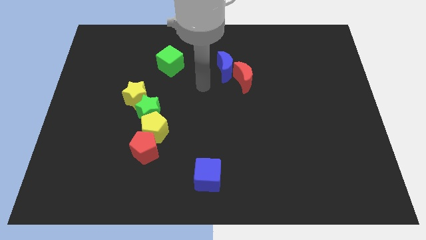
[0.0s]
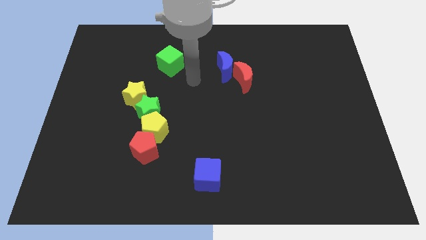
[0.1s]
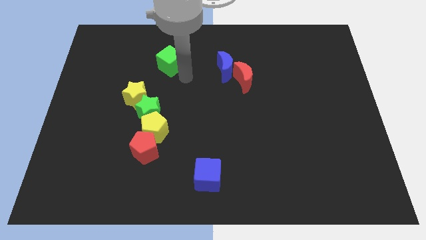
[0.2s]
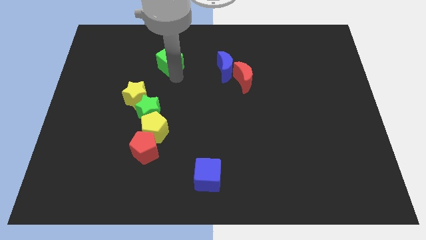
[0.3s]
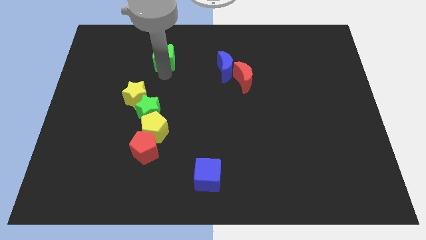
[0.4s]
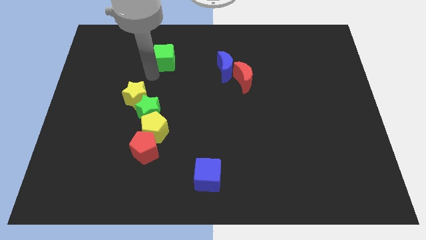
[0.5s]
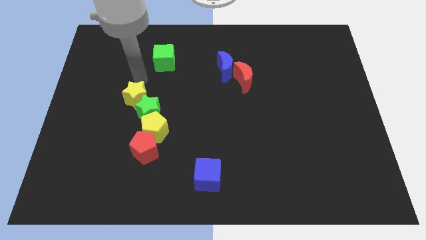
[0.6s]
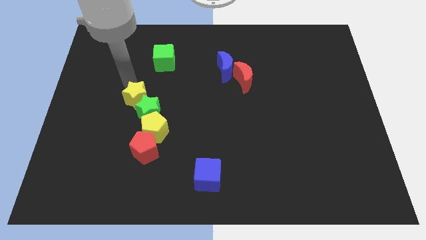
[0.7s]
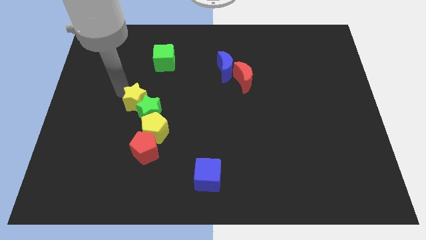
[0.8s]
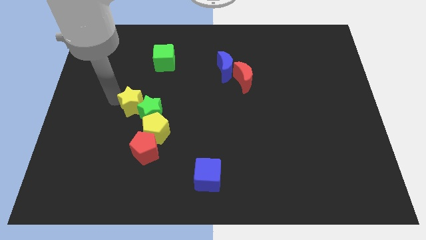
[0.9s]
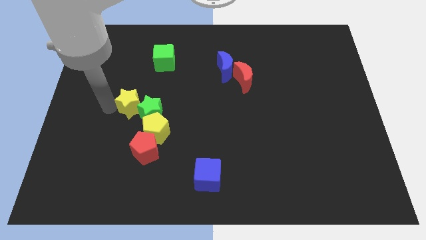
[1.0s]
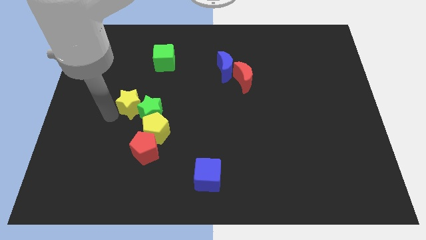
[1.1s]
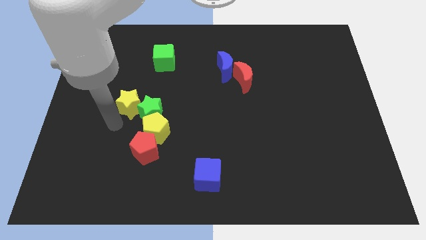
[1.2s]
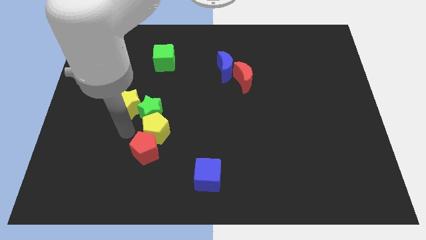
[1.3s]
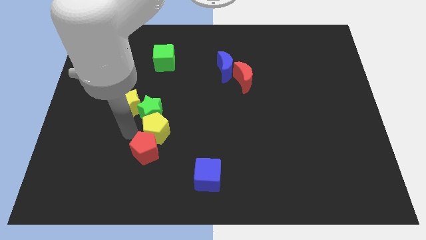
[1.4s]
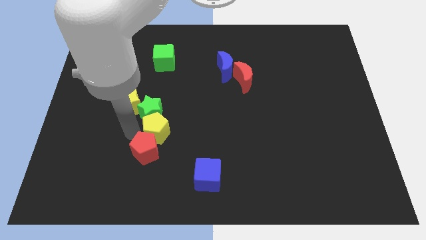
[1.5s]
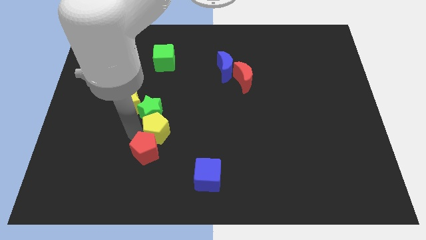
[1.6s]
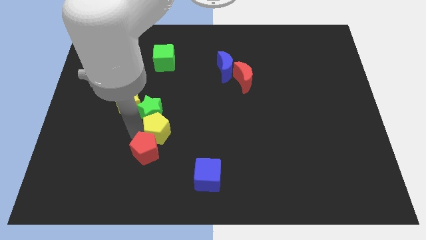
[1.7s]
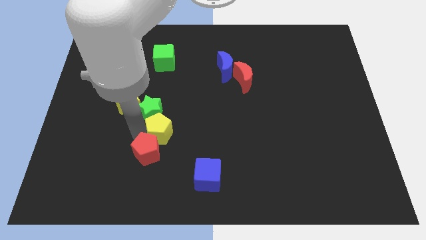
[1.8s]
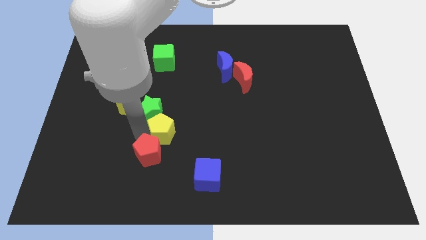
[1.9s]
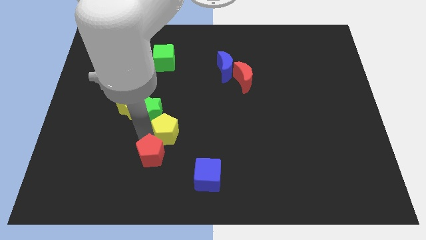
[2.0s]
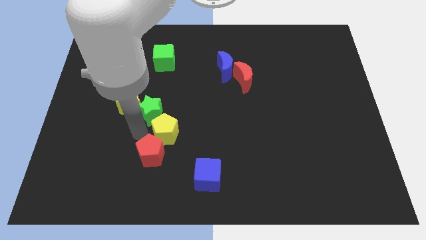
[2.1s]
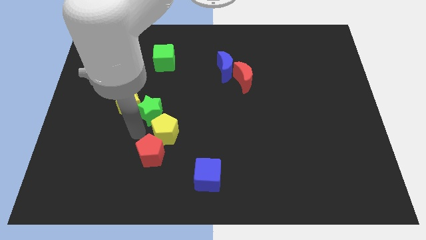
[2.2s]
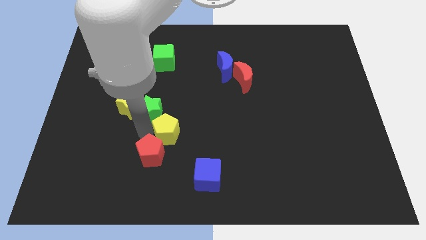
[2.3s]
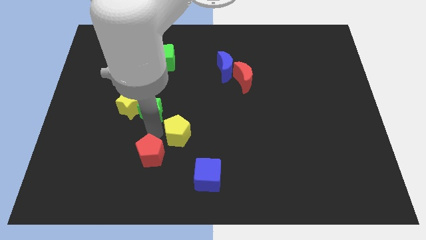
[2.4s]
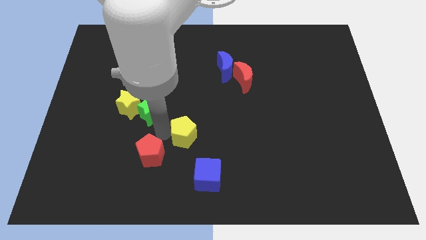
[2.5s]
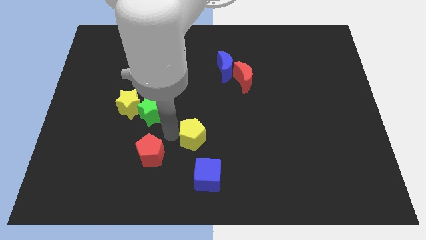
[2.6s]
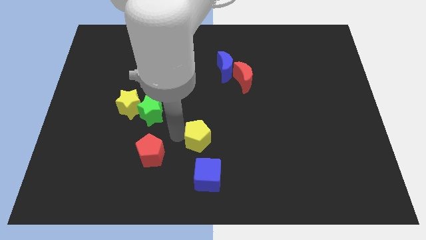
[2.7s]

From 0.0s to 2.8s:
separate the yellow pentagon from the red pentagon and green star

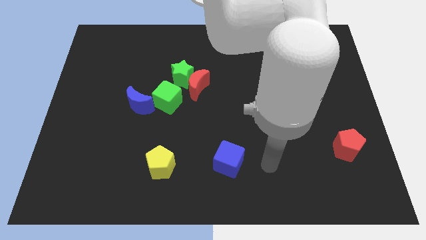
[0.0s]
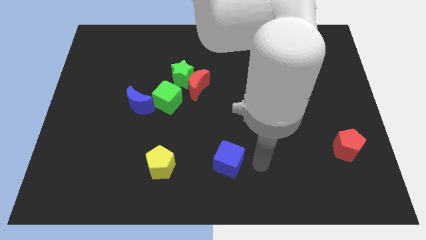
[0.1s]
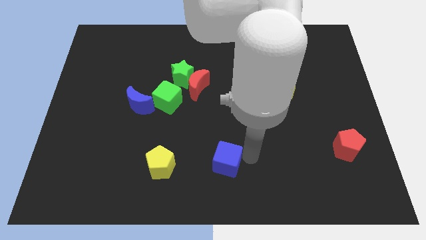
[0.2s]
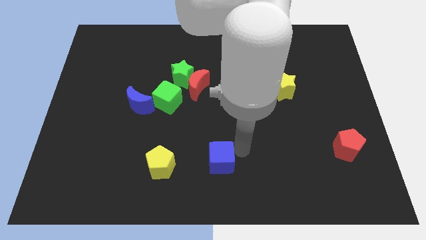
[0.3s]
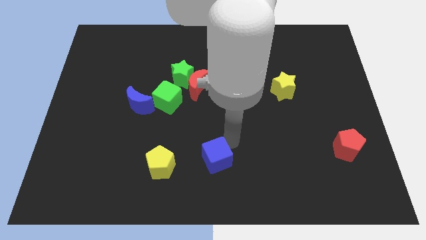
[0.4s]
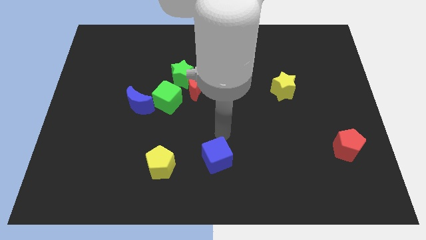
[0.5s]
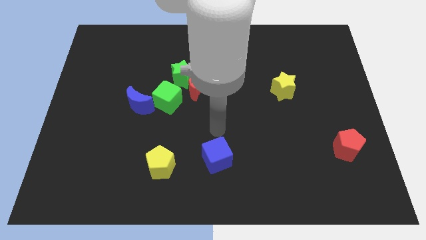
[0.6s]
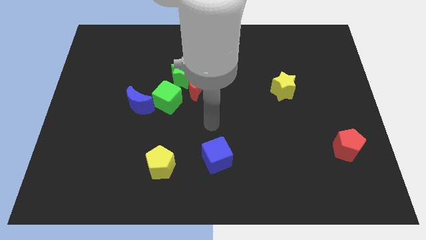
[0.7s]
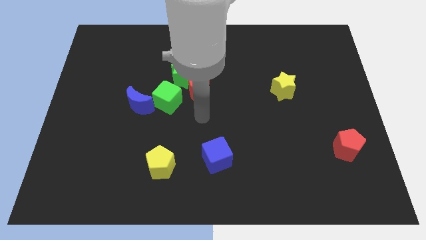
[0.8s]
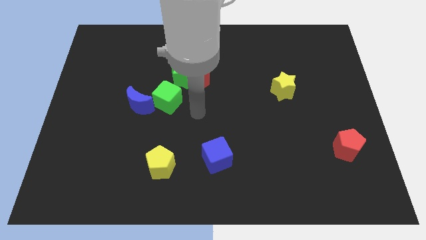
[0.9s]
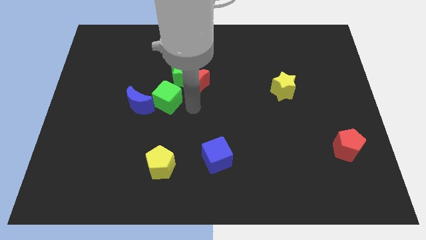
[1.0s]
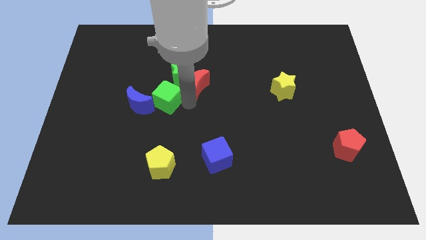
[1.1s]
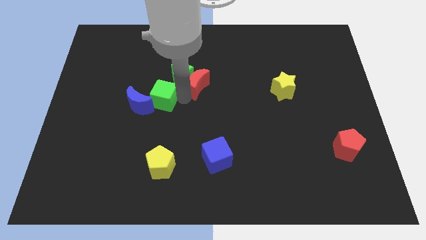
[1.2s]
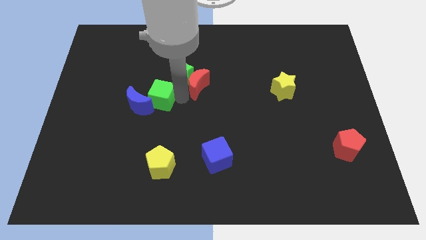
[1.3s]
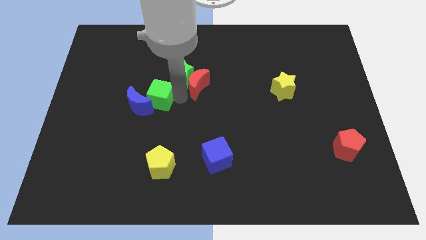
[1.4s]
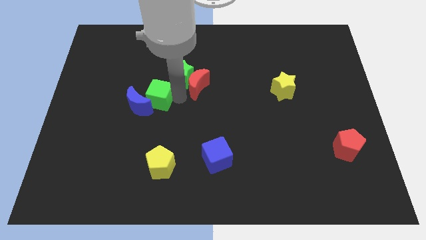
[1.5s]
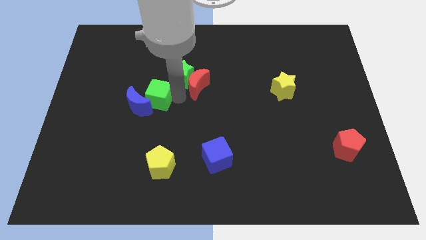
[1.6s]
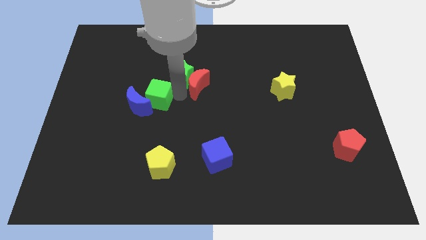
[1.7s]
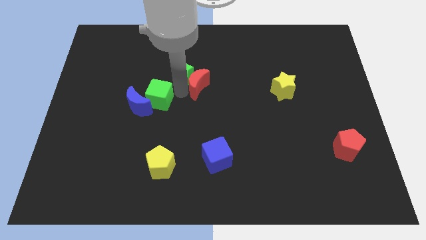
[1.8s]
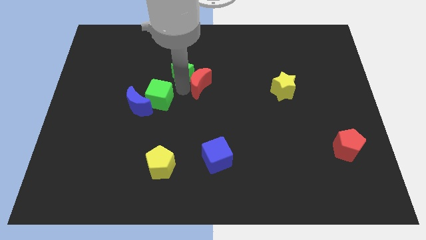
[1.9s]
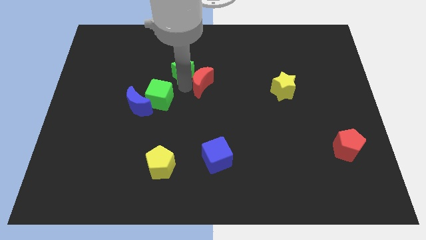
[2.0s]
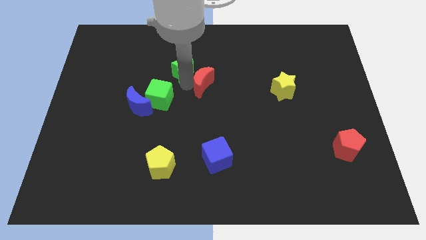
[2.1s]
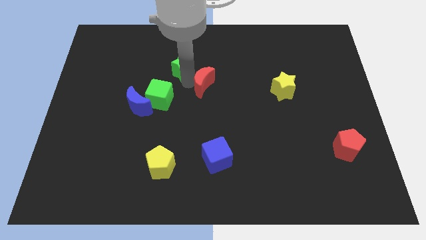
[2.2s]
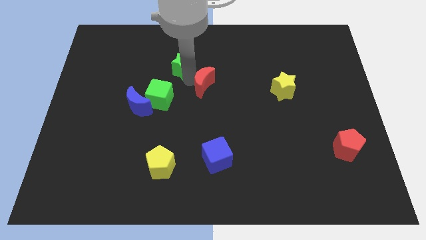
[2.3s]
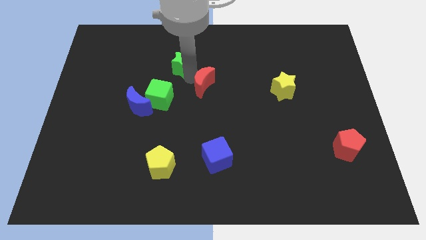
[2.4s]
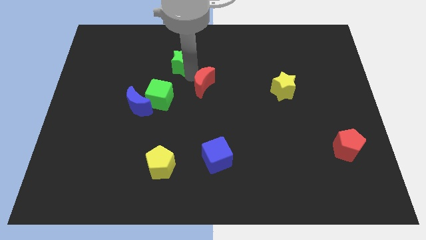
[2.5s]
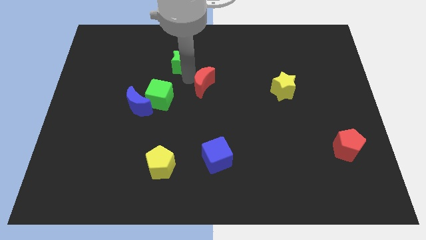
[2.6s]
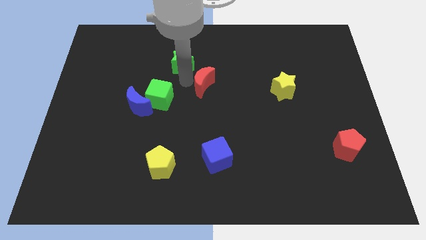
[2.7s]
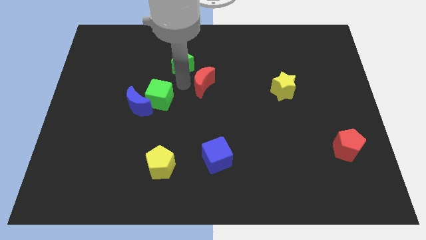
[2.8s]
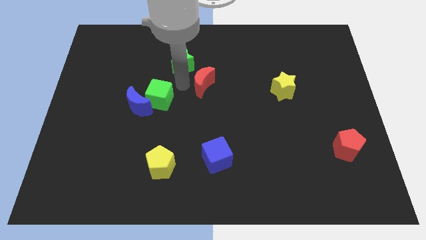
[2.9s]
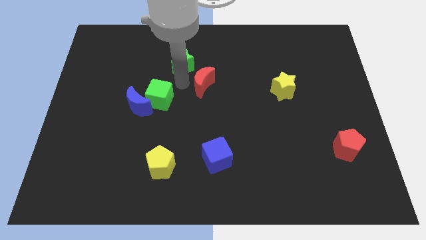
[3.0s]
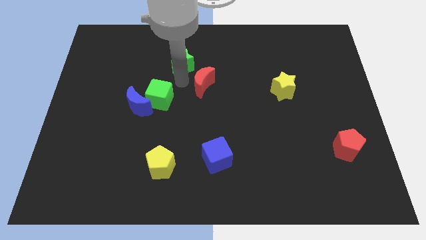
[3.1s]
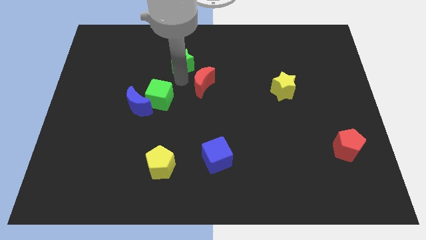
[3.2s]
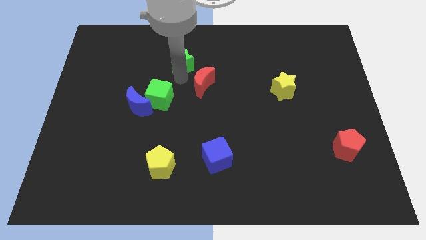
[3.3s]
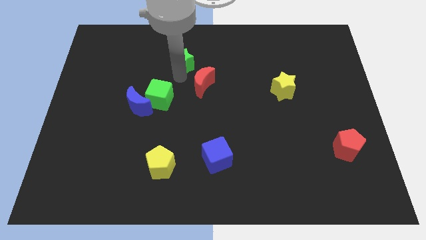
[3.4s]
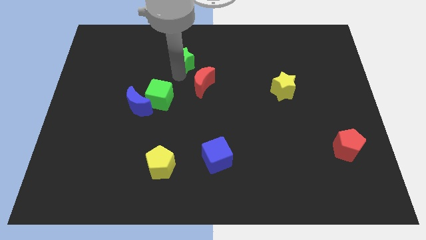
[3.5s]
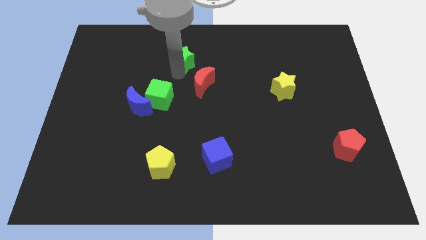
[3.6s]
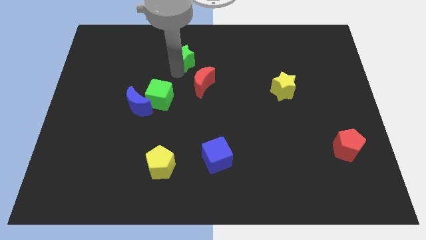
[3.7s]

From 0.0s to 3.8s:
separate the green star from the red moon and green cube

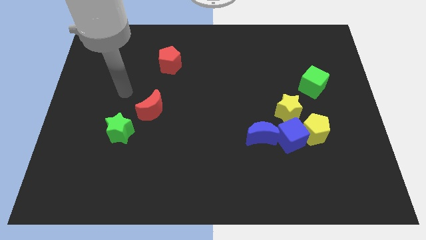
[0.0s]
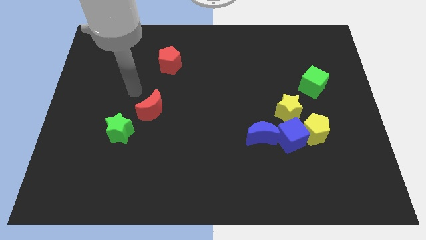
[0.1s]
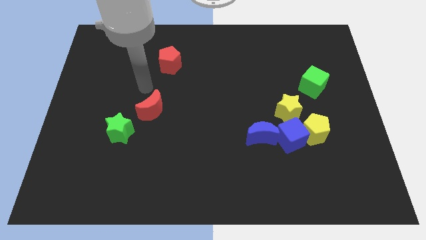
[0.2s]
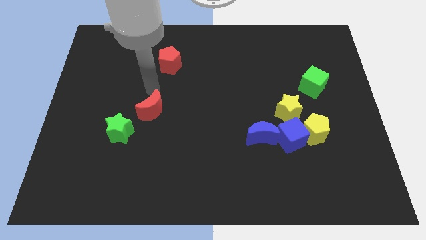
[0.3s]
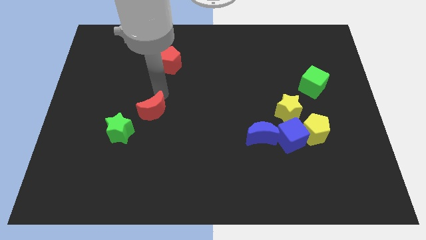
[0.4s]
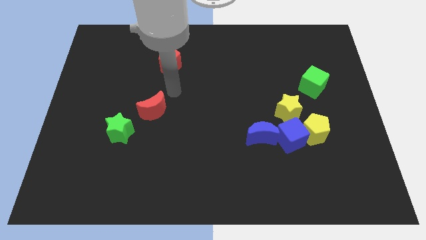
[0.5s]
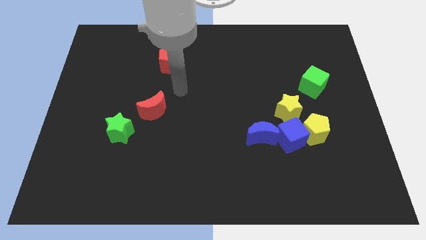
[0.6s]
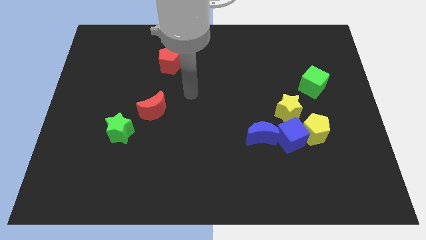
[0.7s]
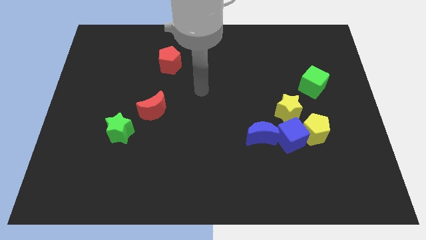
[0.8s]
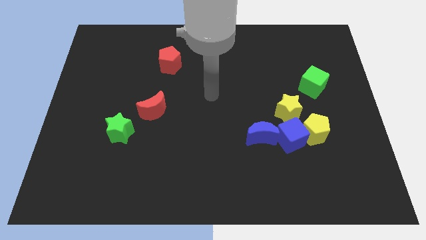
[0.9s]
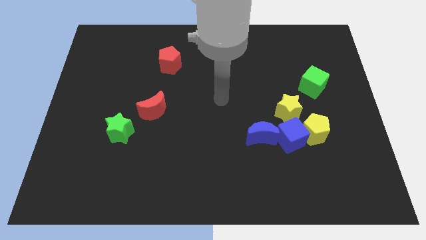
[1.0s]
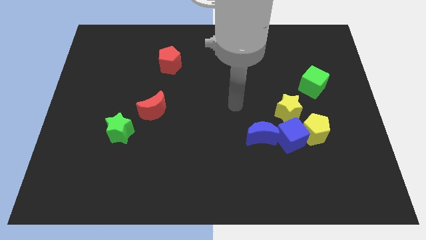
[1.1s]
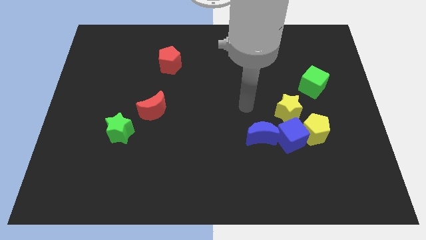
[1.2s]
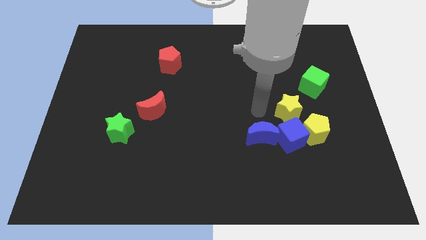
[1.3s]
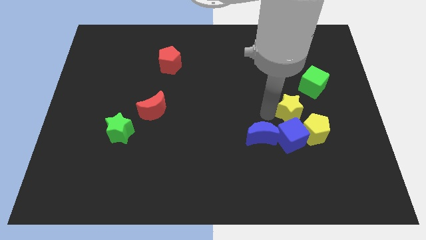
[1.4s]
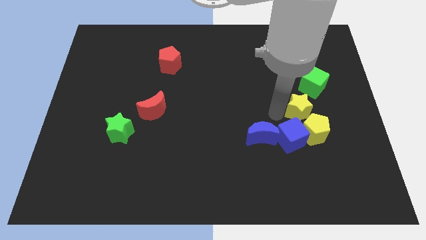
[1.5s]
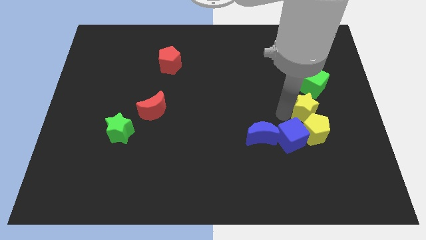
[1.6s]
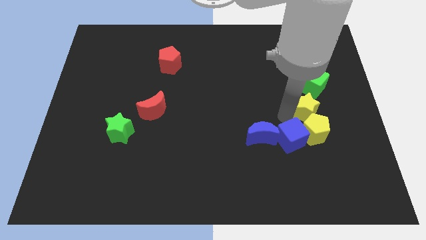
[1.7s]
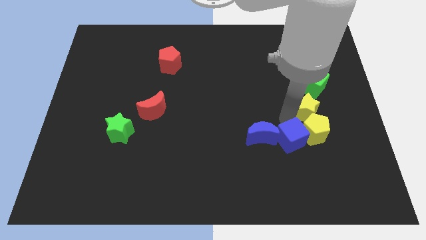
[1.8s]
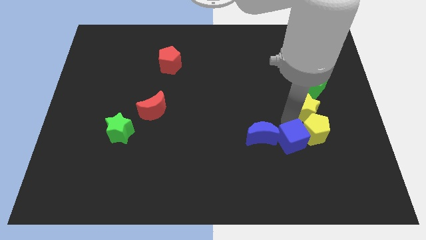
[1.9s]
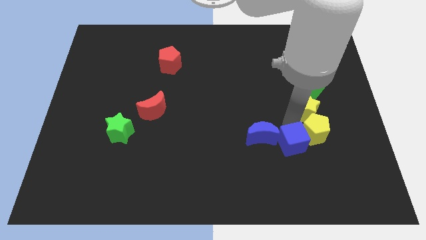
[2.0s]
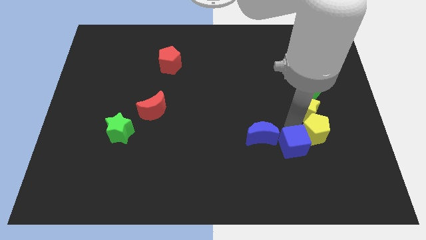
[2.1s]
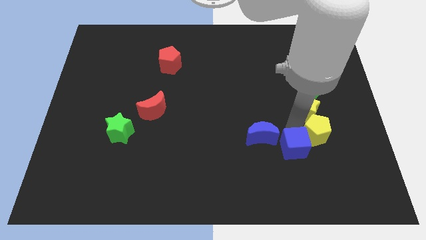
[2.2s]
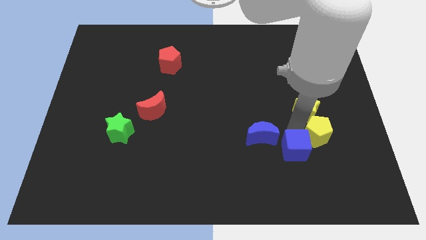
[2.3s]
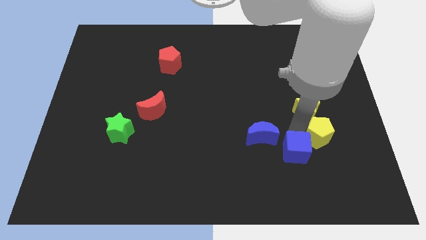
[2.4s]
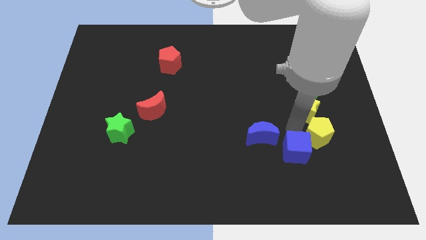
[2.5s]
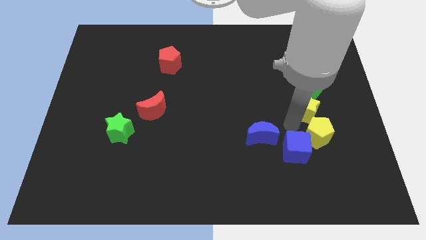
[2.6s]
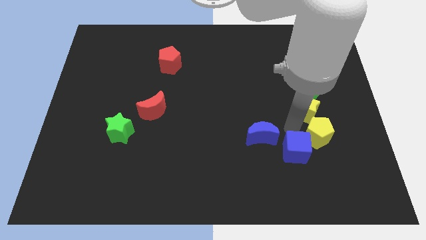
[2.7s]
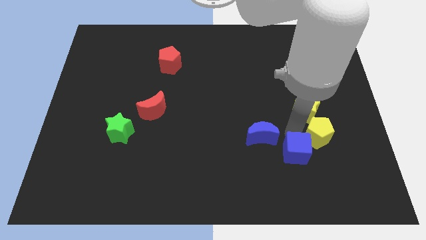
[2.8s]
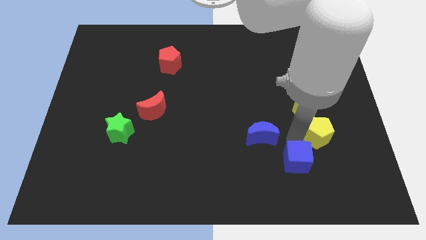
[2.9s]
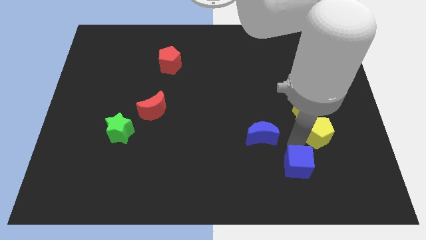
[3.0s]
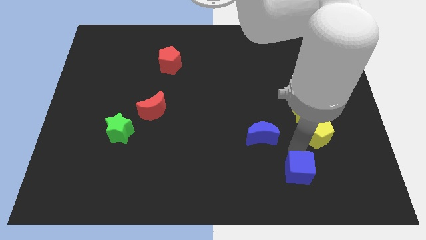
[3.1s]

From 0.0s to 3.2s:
pull the blue cube apart from the yellow pentagon, blue moon, and yellow star
